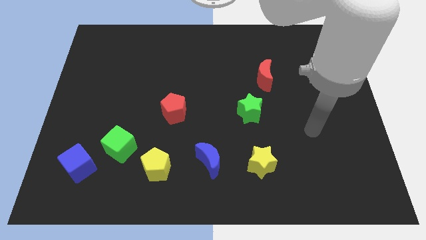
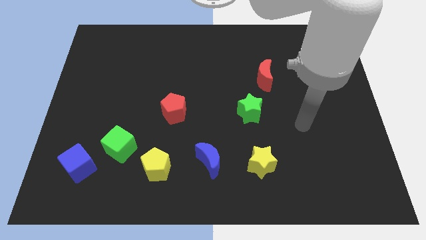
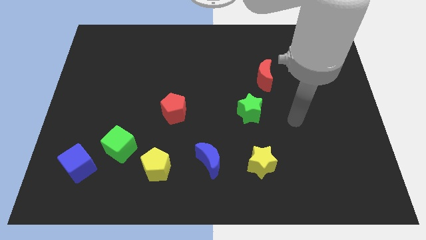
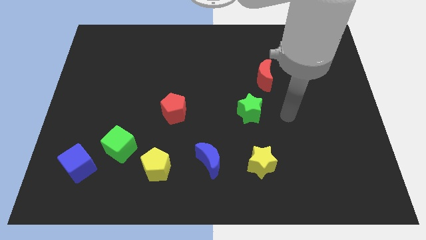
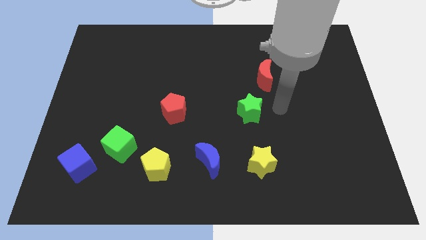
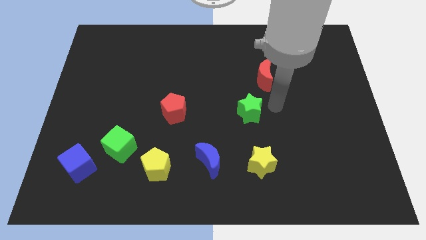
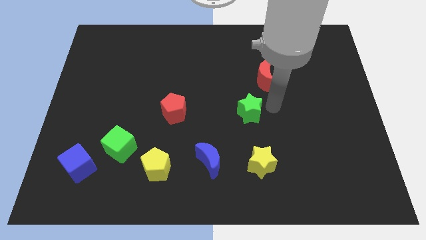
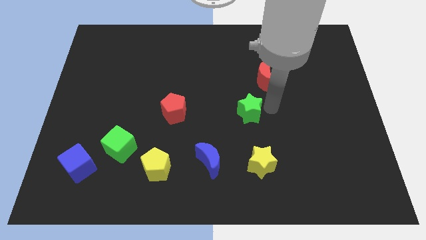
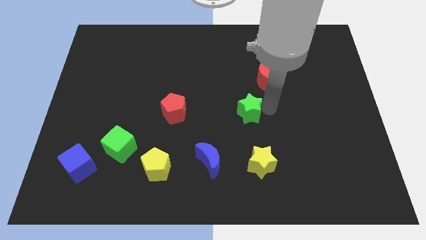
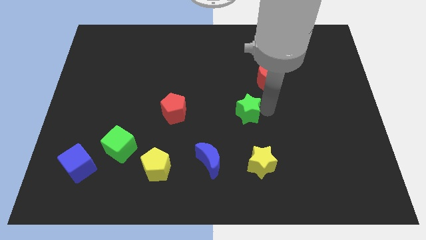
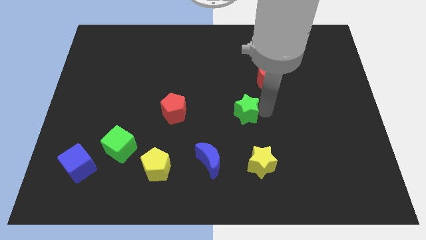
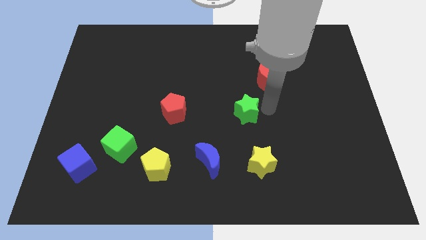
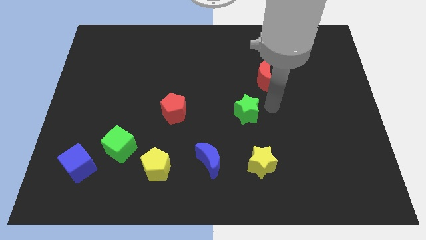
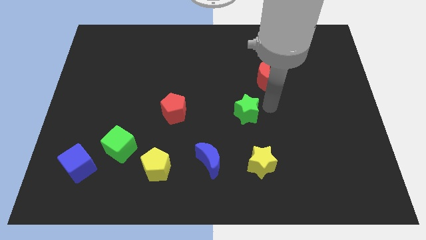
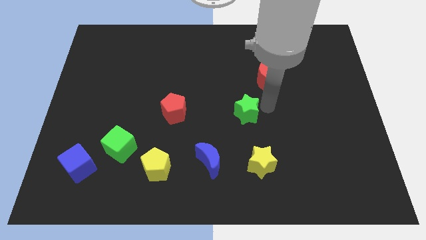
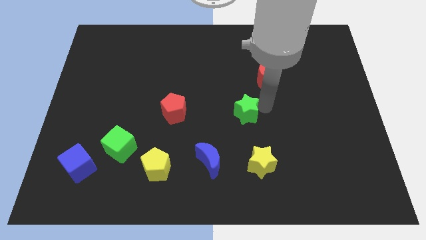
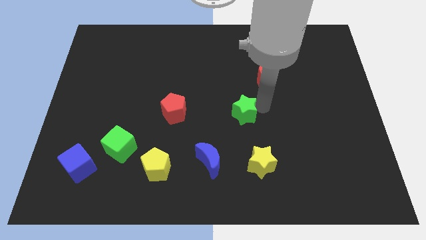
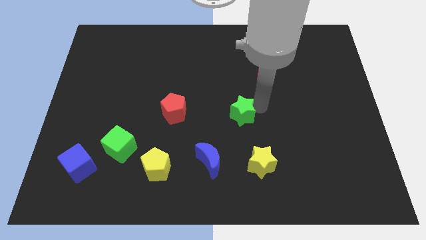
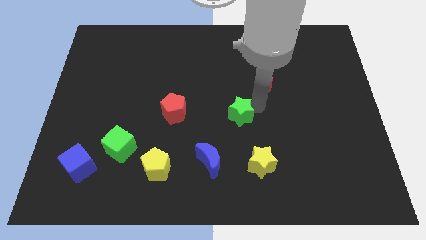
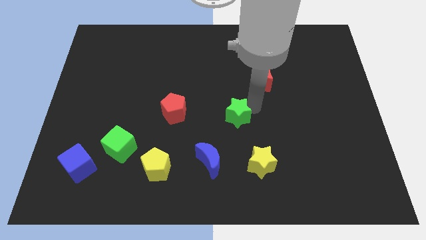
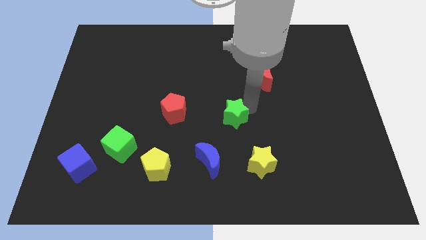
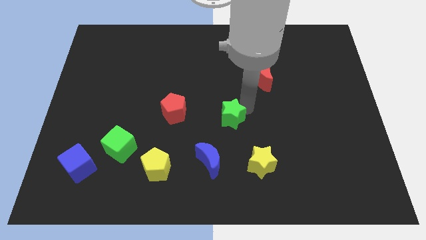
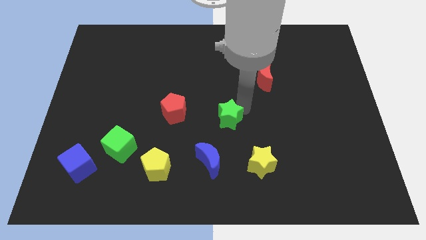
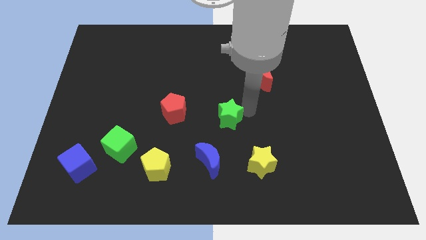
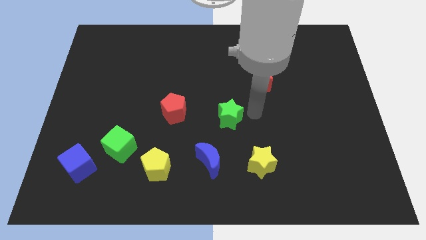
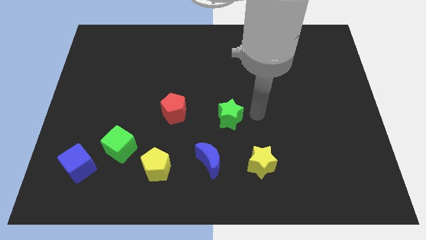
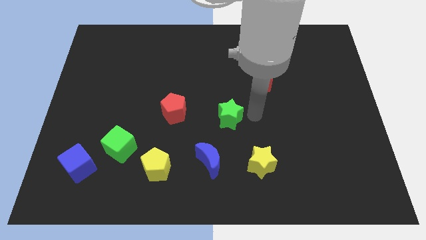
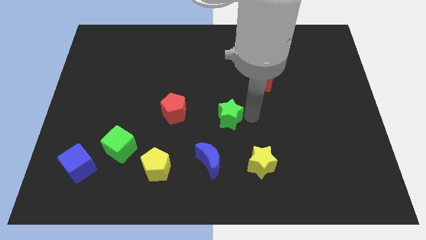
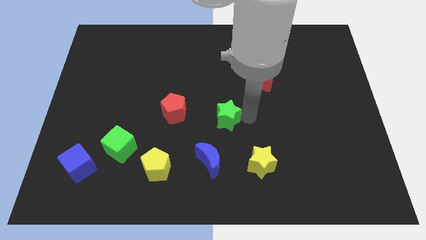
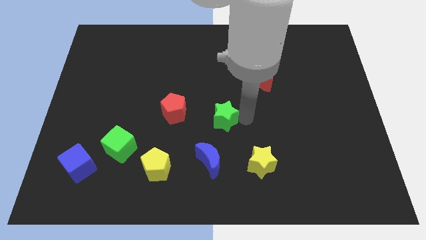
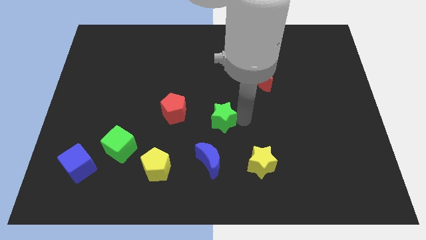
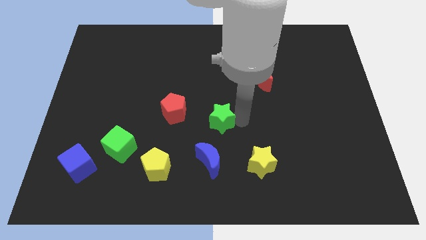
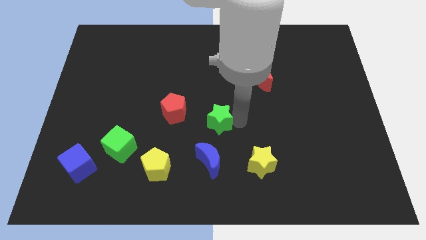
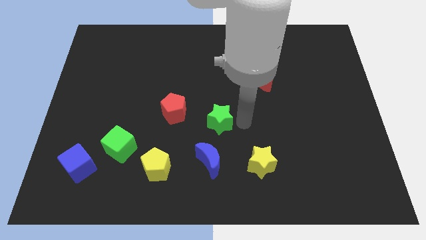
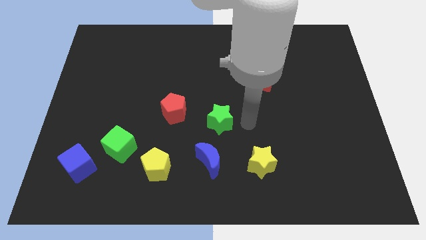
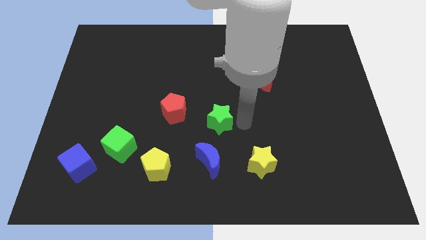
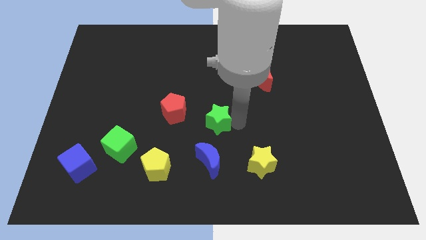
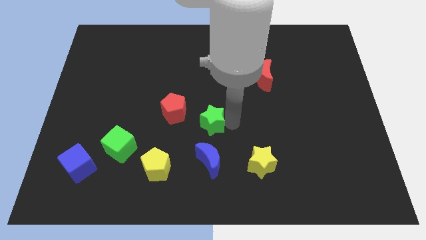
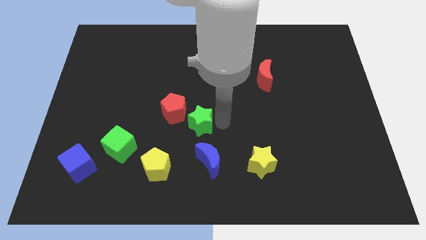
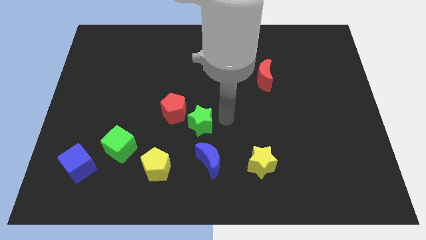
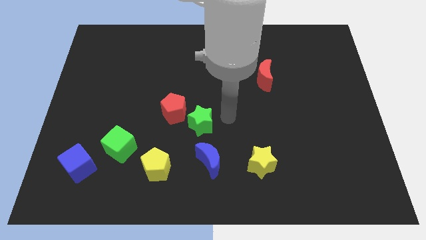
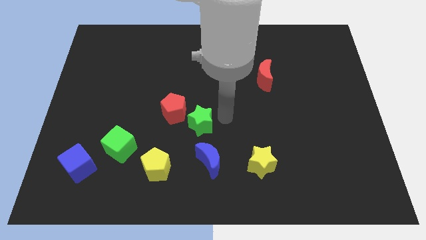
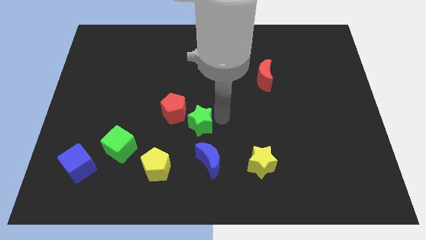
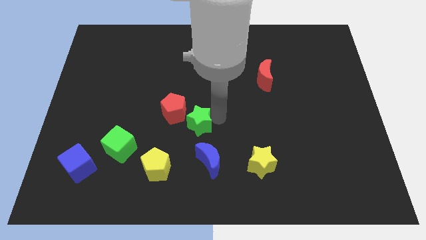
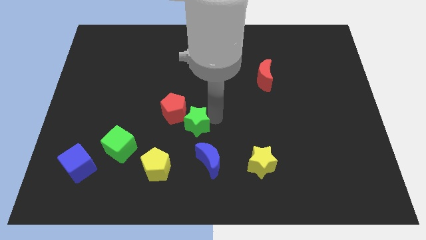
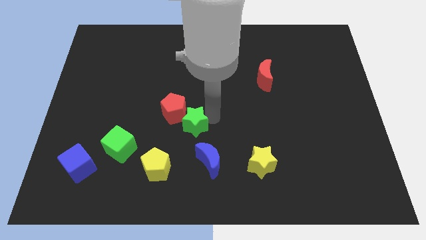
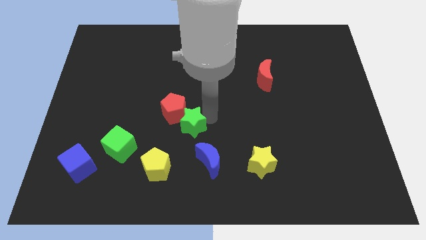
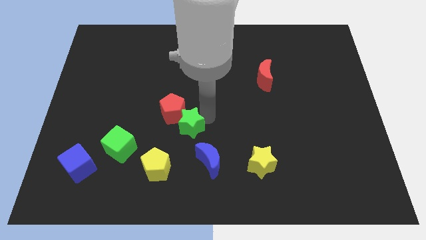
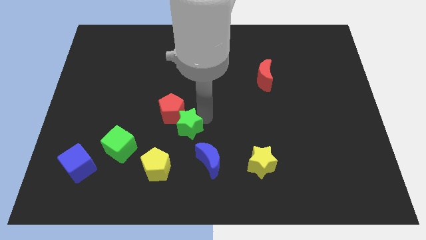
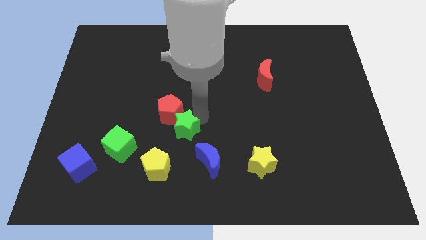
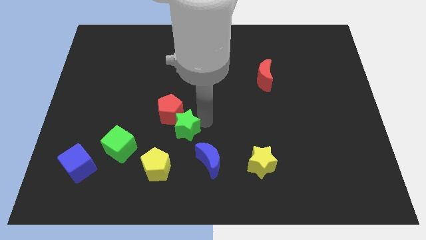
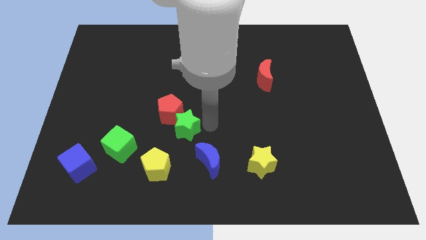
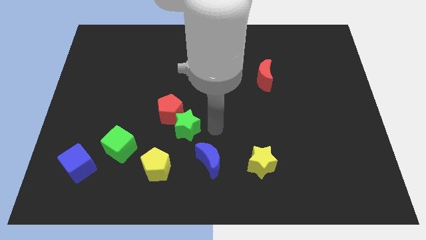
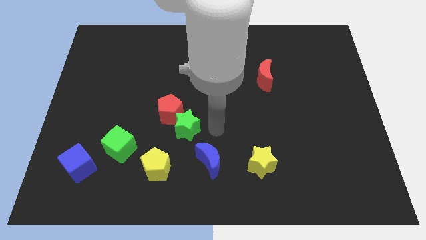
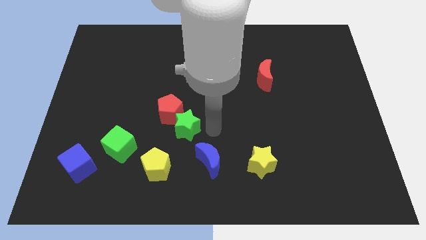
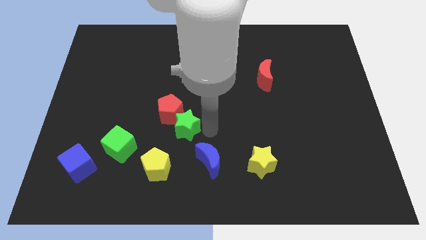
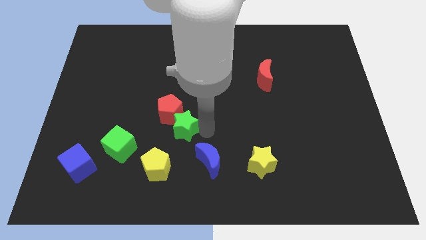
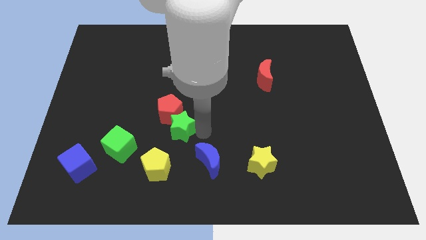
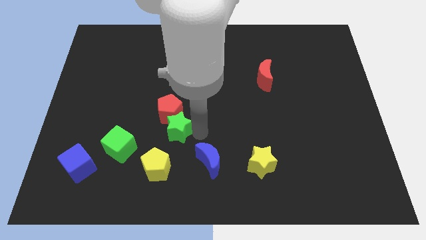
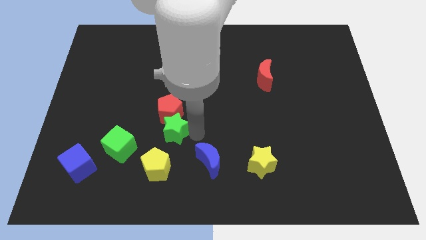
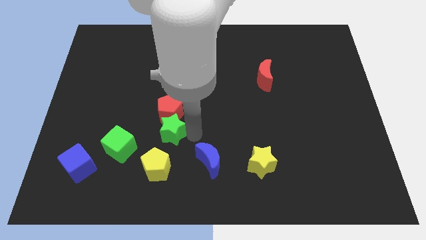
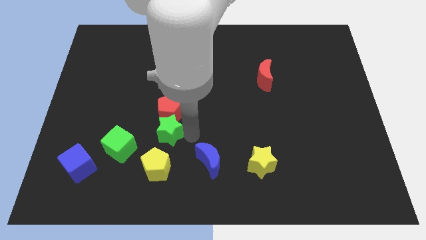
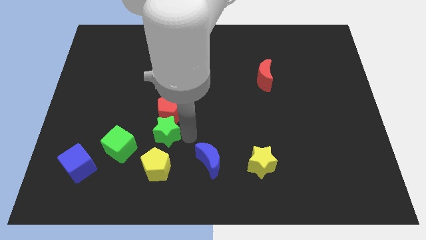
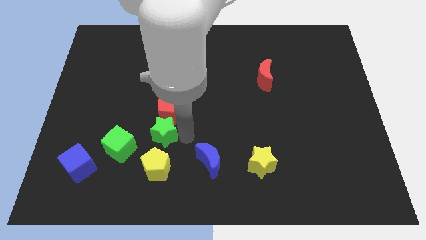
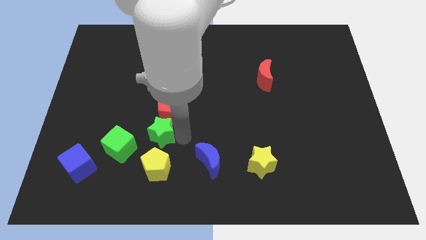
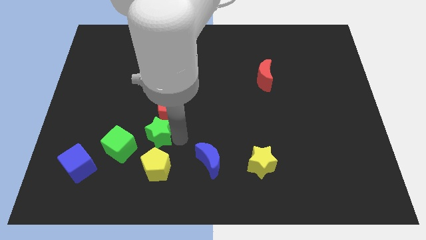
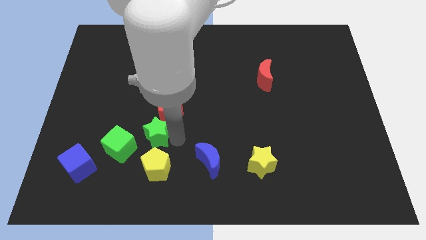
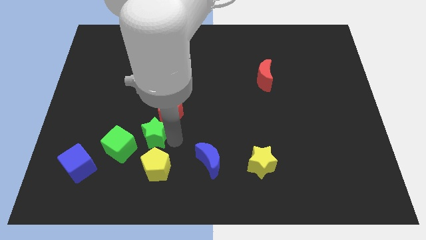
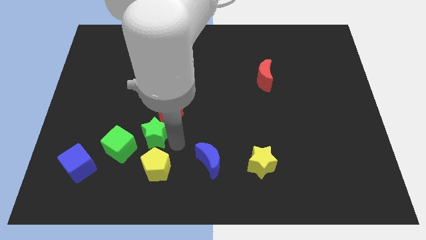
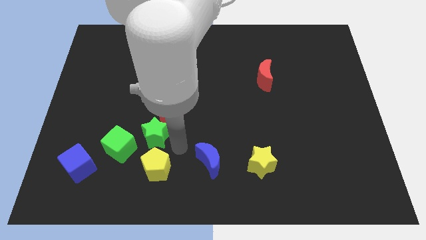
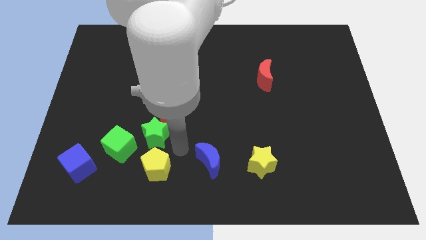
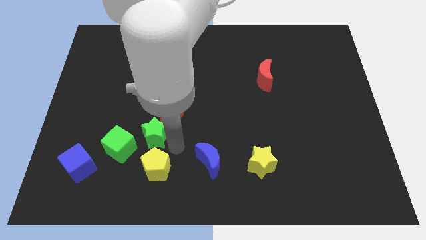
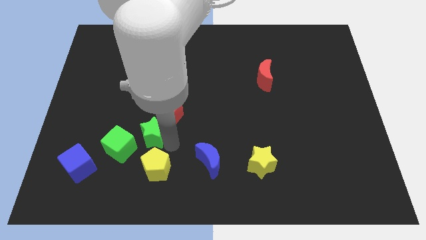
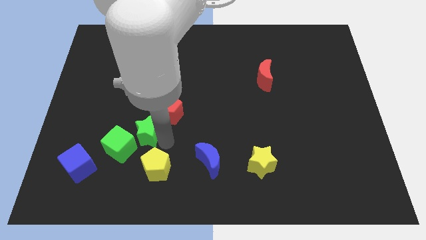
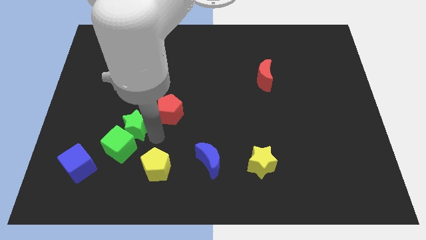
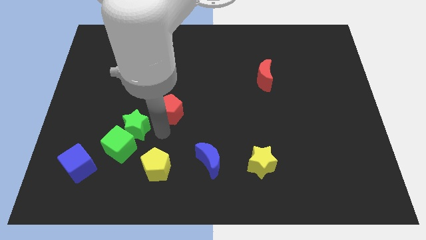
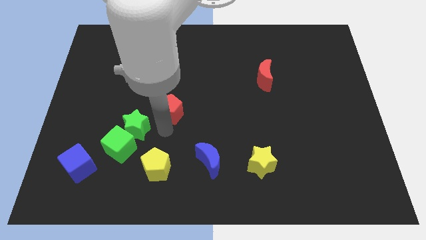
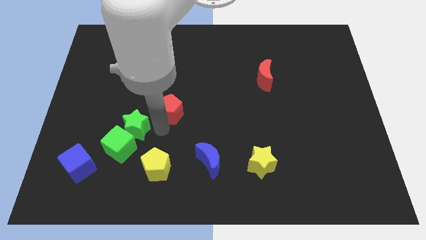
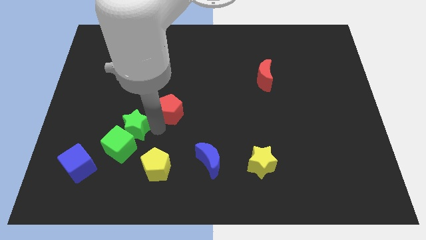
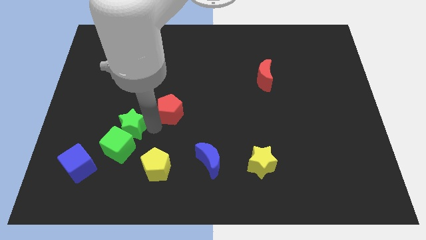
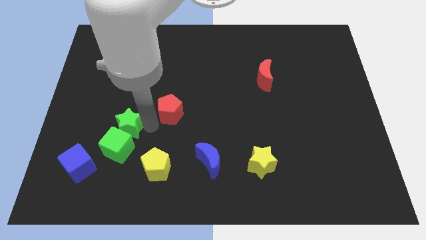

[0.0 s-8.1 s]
slide the green star diagonally up and to the left of the green cube
